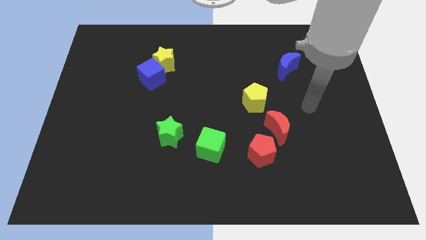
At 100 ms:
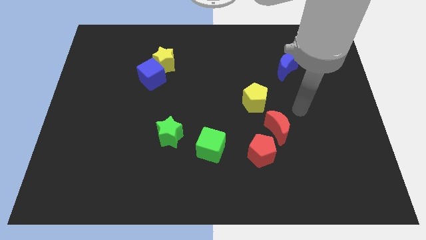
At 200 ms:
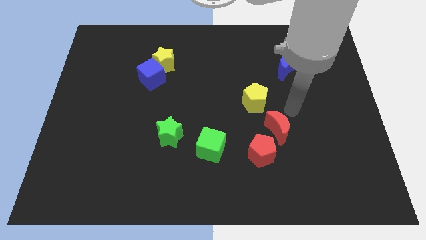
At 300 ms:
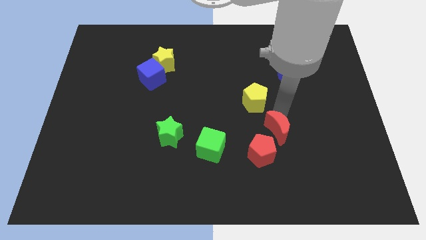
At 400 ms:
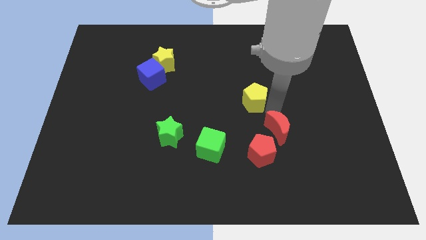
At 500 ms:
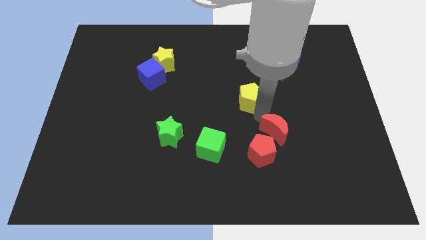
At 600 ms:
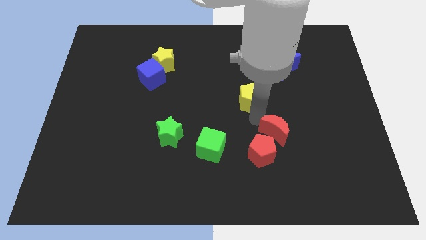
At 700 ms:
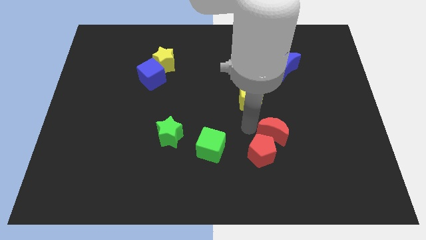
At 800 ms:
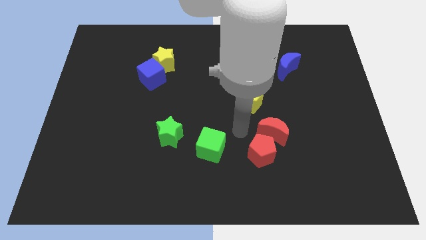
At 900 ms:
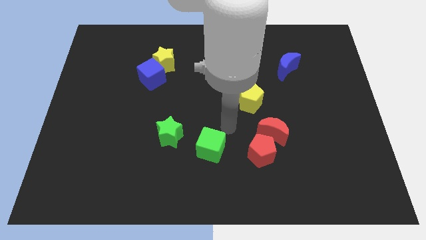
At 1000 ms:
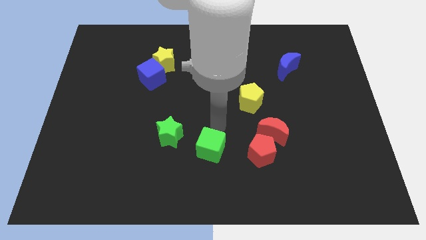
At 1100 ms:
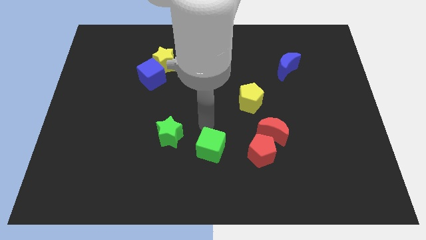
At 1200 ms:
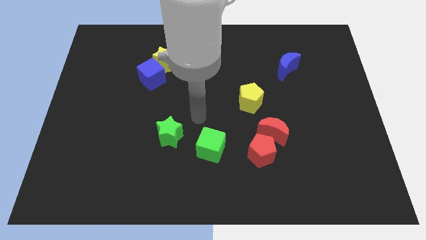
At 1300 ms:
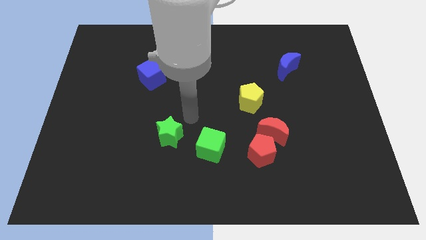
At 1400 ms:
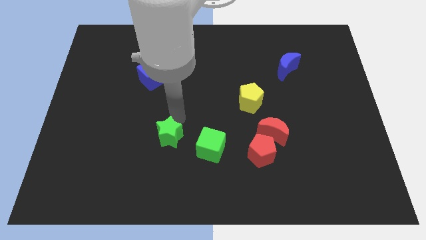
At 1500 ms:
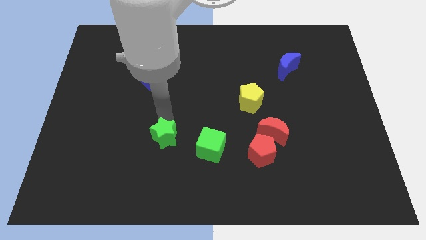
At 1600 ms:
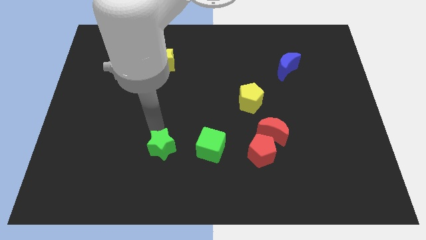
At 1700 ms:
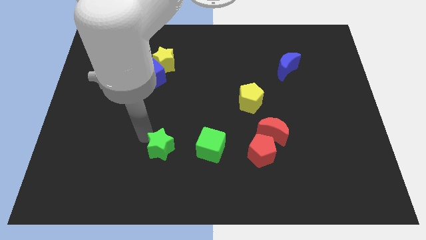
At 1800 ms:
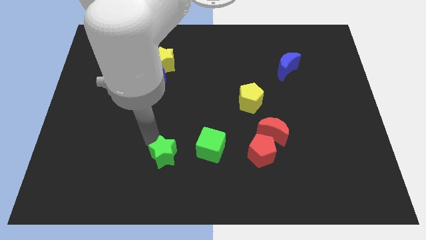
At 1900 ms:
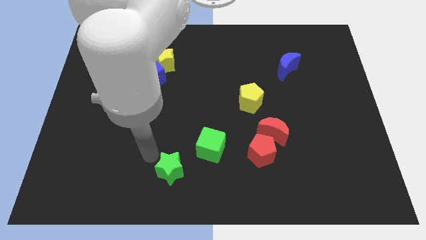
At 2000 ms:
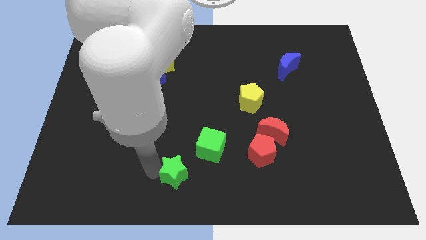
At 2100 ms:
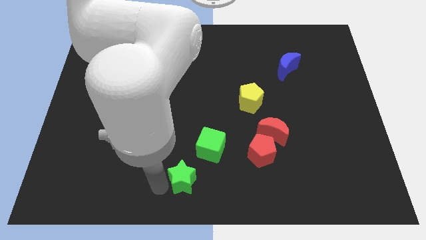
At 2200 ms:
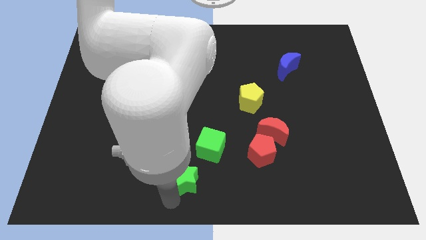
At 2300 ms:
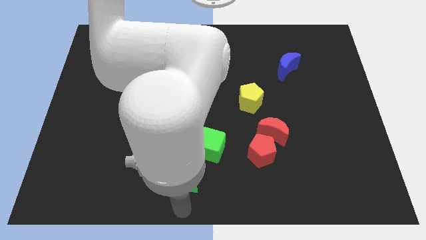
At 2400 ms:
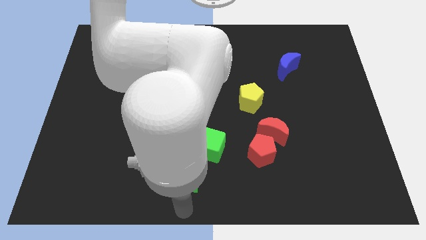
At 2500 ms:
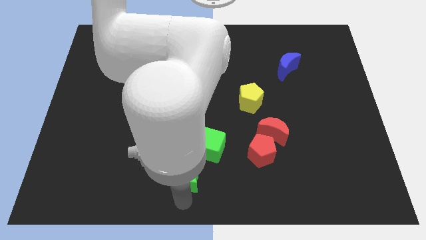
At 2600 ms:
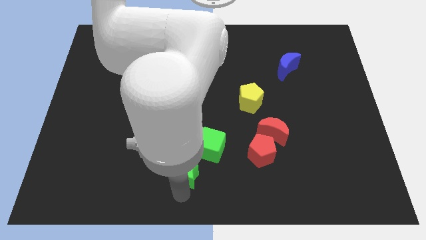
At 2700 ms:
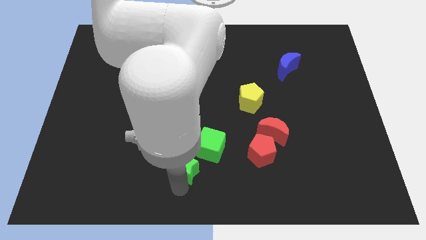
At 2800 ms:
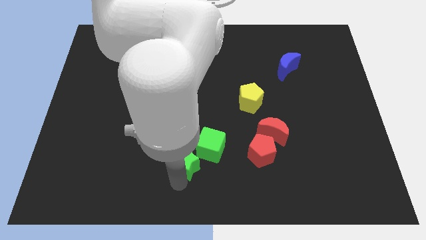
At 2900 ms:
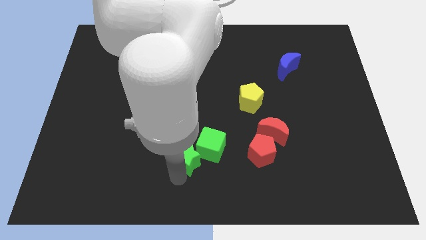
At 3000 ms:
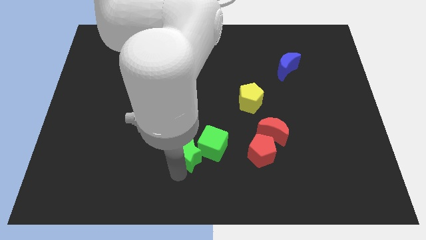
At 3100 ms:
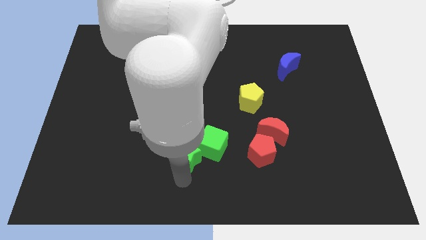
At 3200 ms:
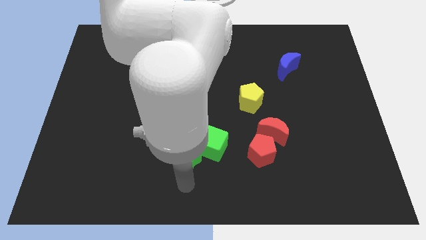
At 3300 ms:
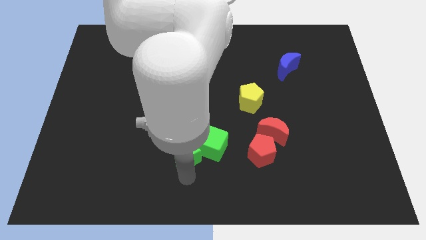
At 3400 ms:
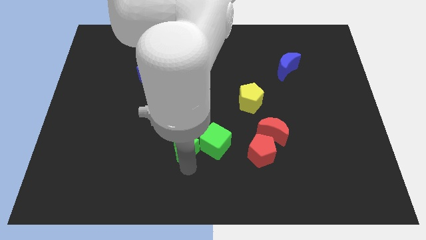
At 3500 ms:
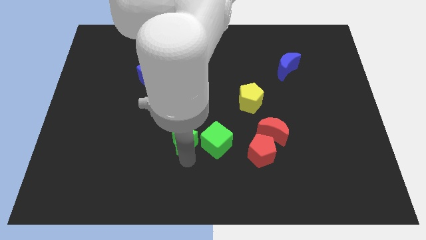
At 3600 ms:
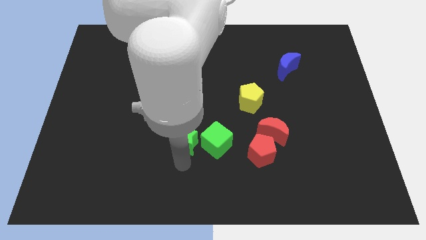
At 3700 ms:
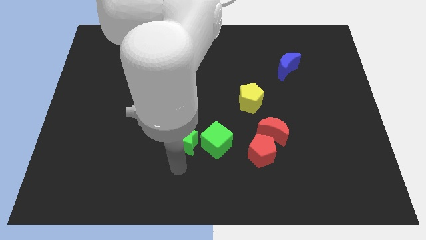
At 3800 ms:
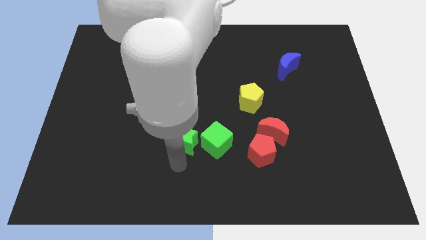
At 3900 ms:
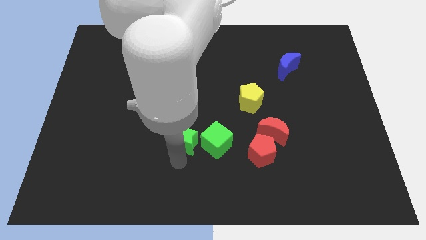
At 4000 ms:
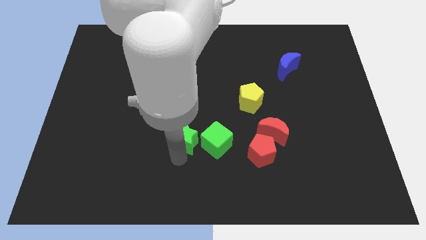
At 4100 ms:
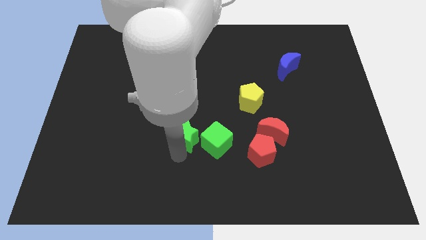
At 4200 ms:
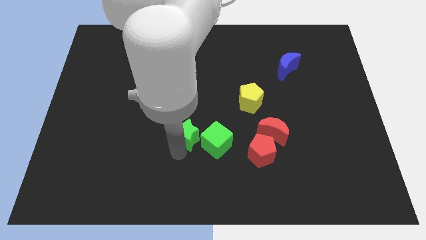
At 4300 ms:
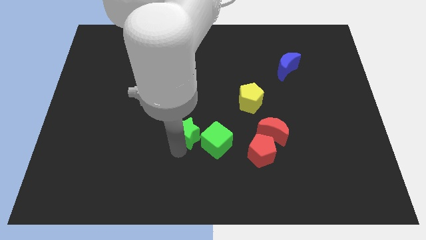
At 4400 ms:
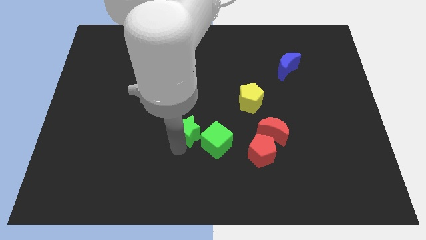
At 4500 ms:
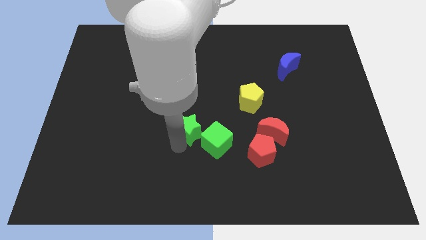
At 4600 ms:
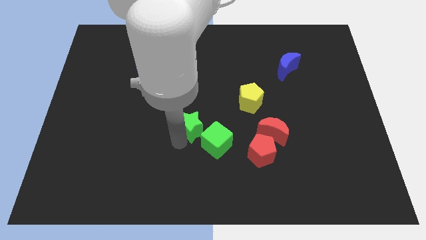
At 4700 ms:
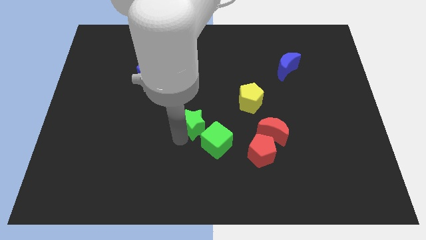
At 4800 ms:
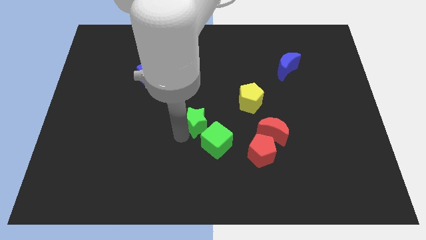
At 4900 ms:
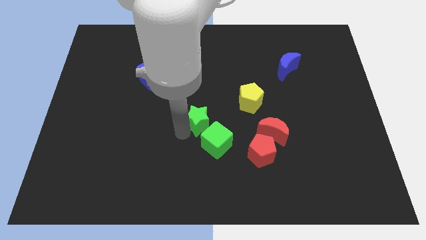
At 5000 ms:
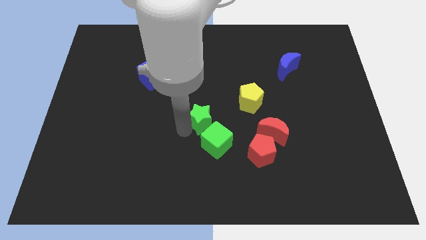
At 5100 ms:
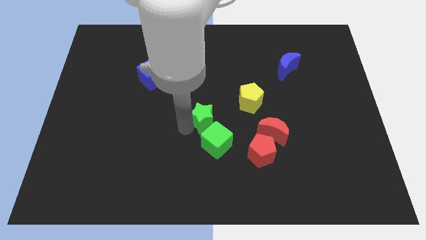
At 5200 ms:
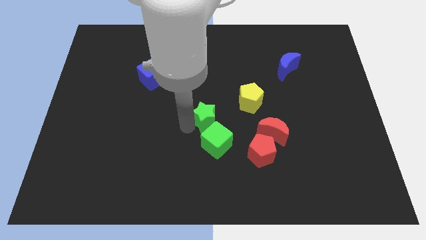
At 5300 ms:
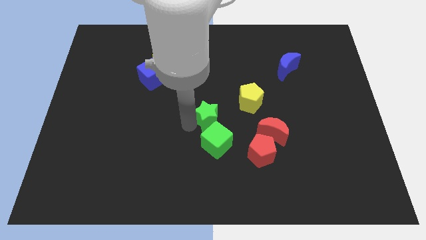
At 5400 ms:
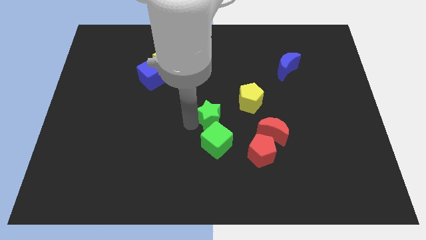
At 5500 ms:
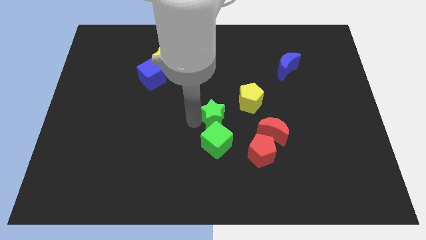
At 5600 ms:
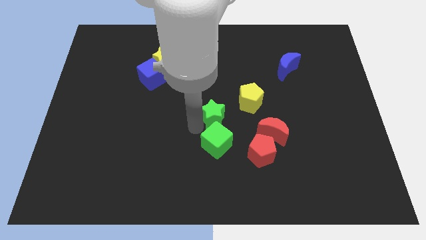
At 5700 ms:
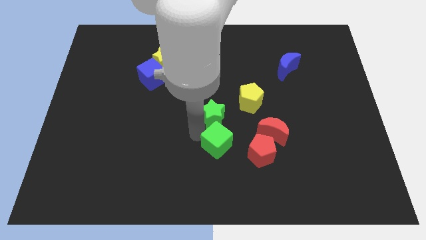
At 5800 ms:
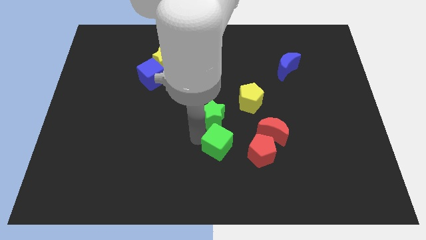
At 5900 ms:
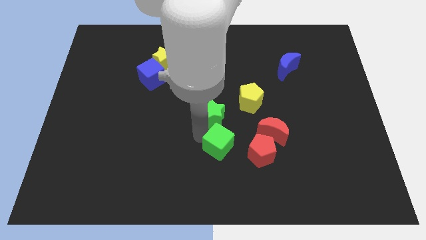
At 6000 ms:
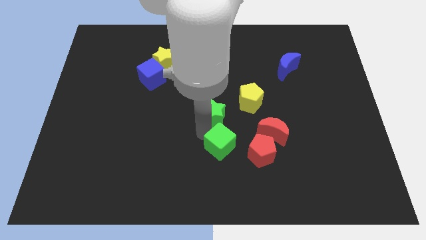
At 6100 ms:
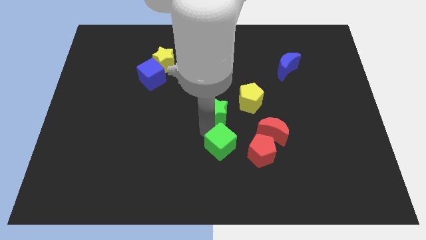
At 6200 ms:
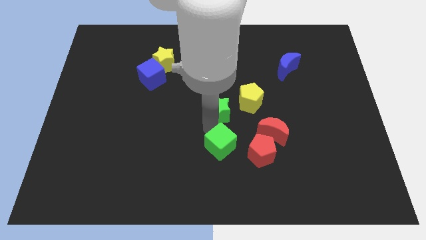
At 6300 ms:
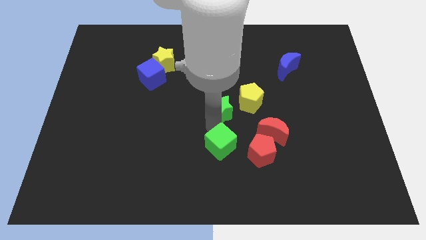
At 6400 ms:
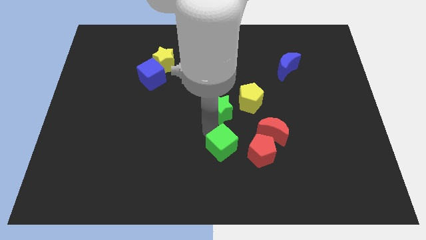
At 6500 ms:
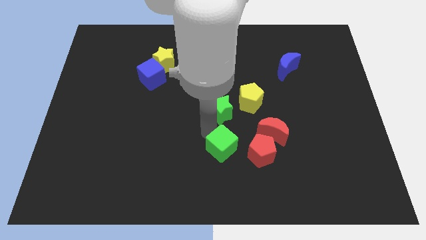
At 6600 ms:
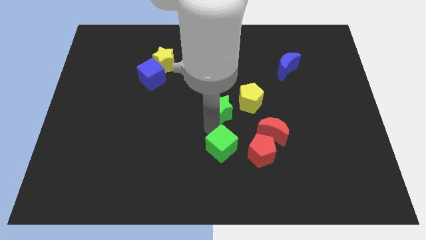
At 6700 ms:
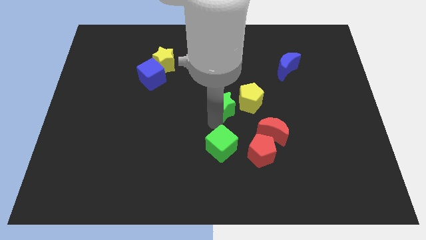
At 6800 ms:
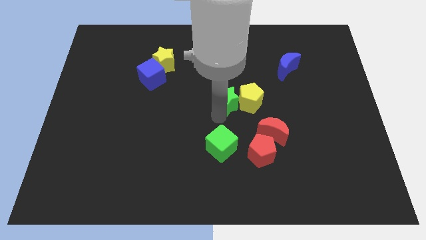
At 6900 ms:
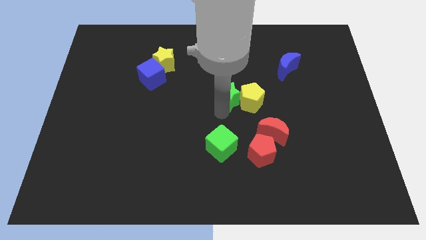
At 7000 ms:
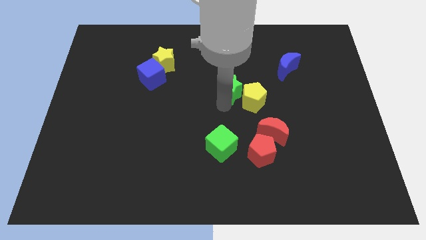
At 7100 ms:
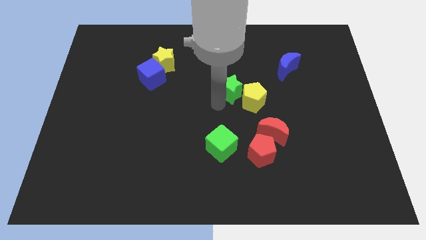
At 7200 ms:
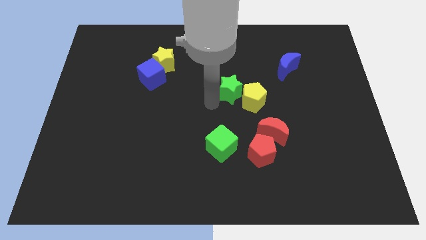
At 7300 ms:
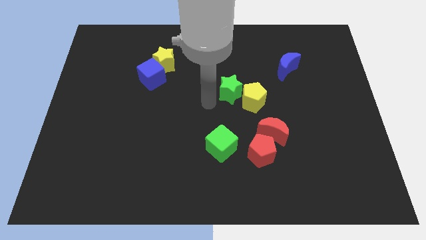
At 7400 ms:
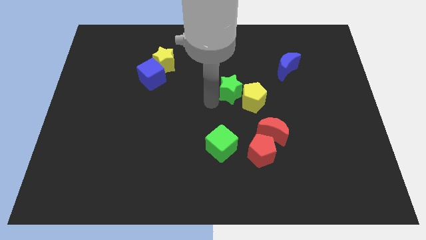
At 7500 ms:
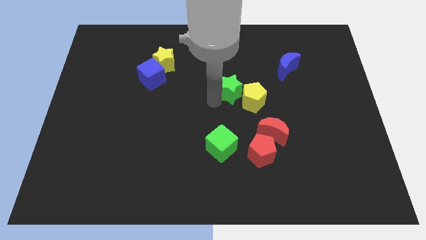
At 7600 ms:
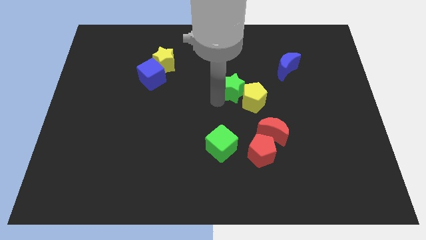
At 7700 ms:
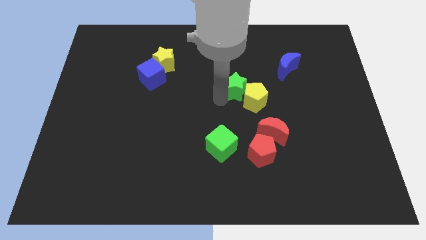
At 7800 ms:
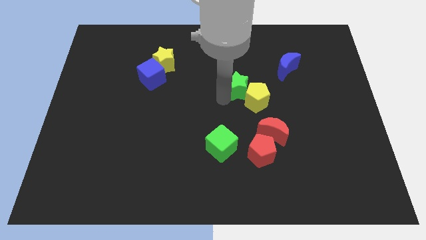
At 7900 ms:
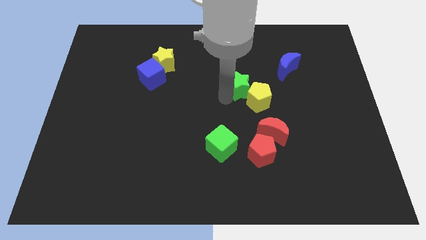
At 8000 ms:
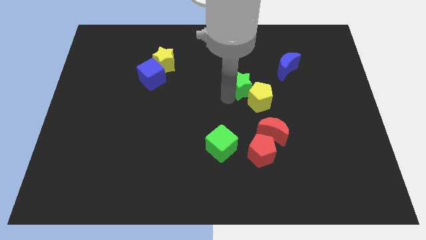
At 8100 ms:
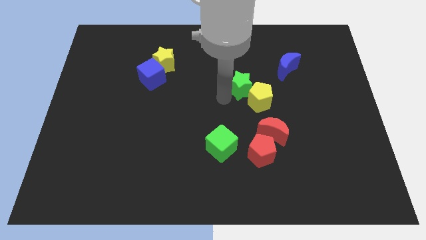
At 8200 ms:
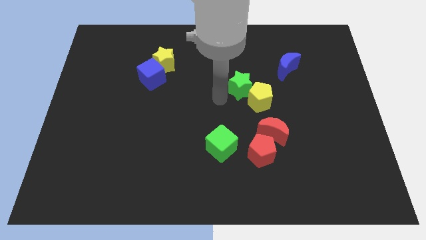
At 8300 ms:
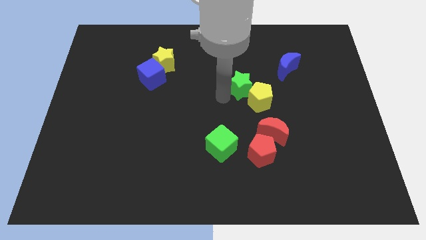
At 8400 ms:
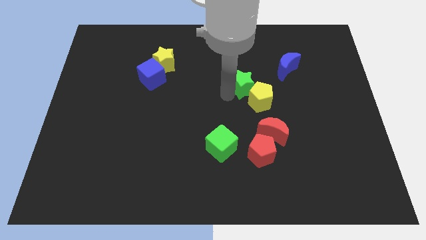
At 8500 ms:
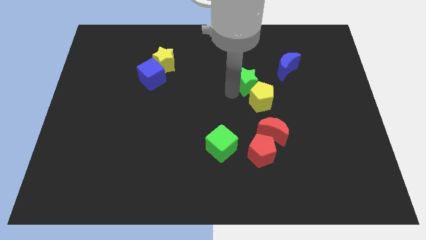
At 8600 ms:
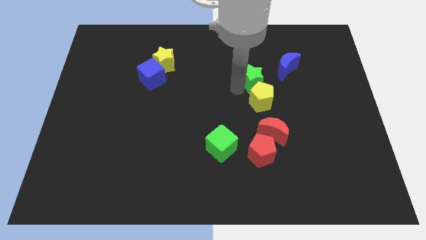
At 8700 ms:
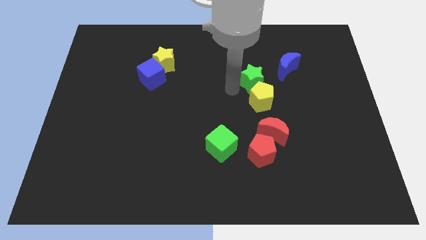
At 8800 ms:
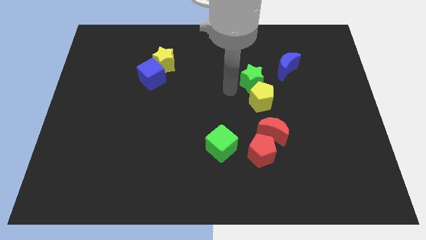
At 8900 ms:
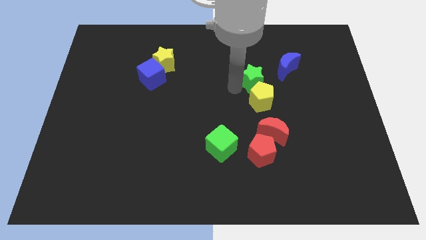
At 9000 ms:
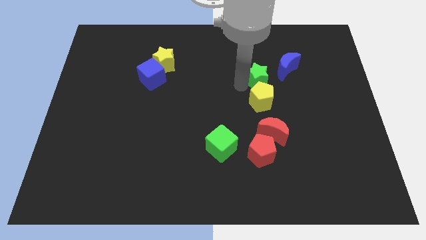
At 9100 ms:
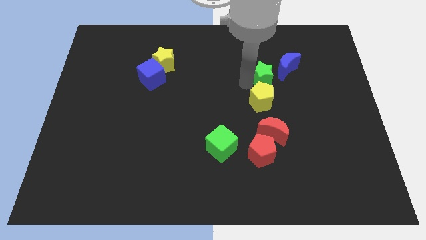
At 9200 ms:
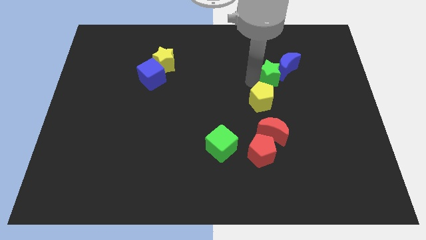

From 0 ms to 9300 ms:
slide the green star towards the blue moon
